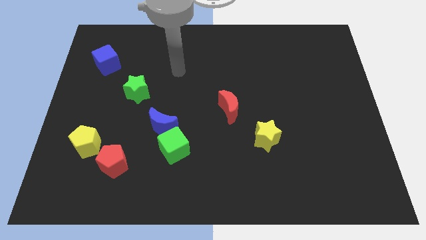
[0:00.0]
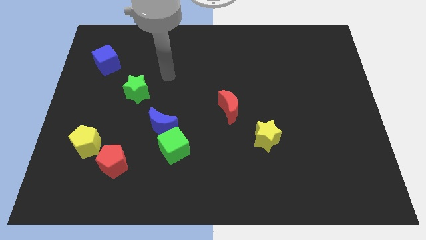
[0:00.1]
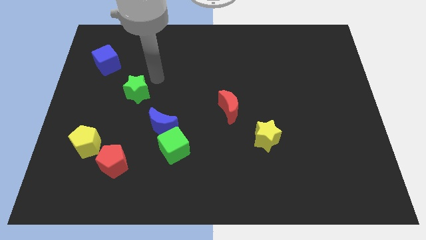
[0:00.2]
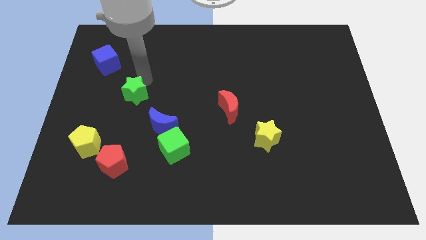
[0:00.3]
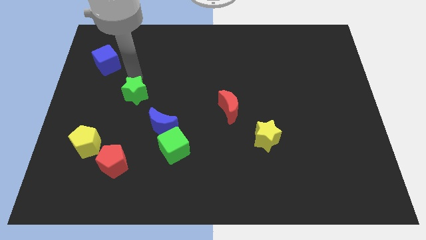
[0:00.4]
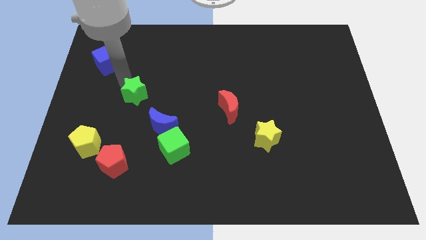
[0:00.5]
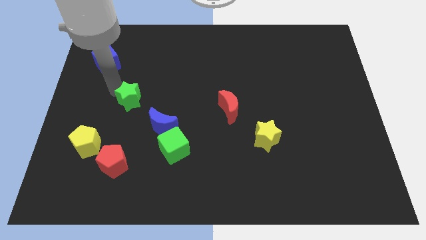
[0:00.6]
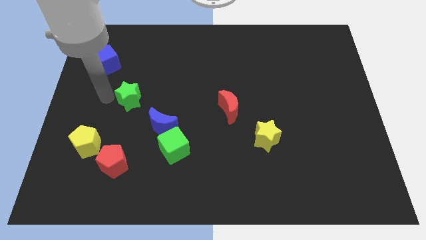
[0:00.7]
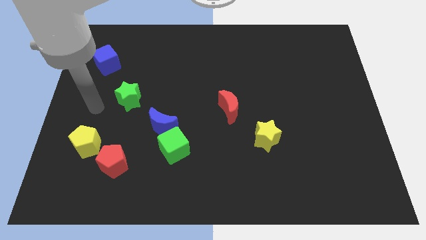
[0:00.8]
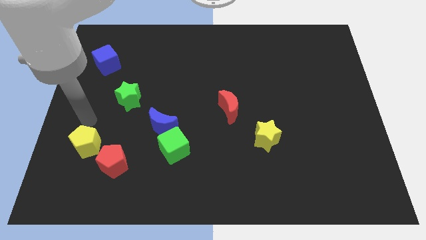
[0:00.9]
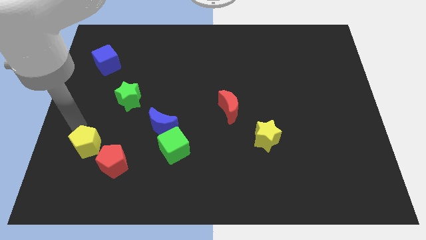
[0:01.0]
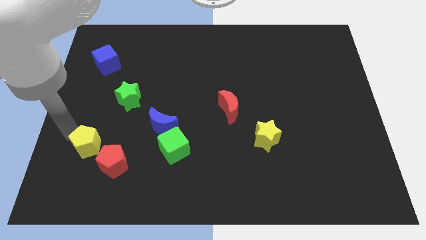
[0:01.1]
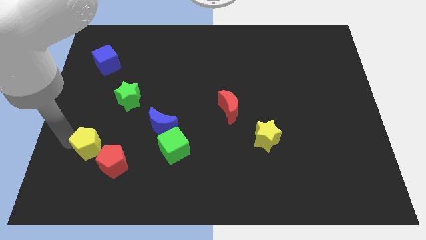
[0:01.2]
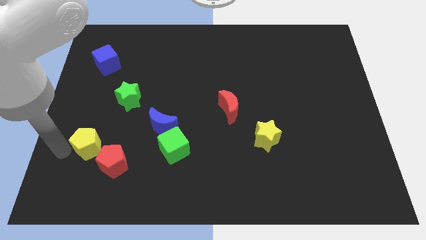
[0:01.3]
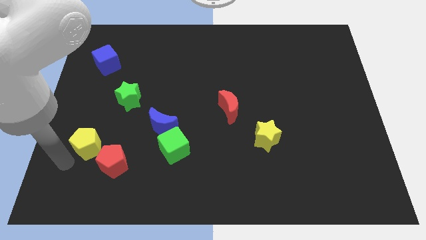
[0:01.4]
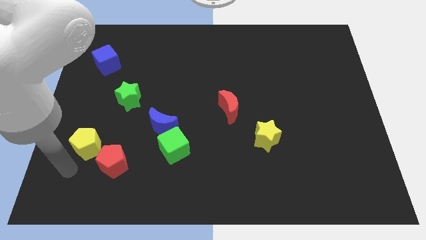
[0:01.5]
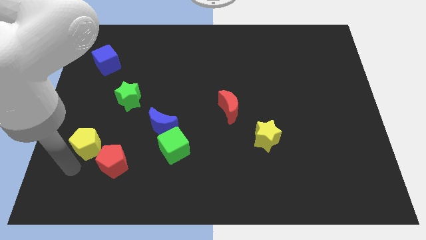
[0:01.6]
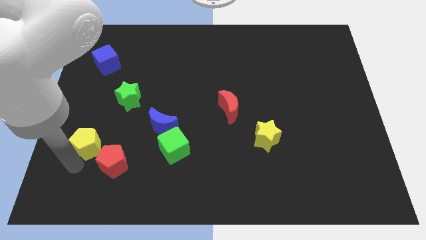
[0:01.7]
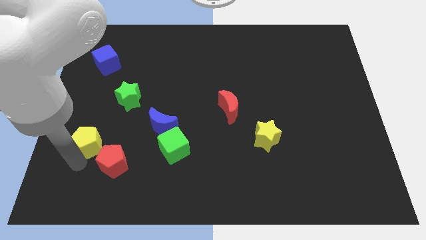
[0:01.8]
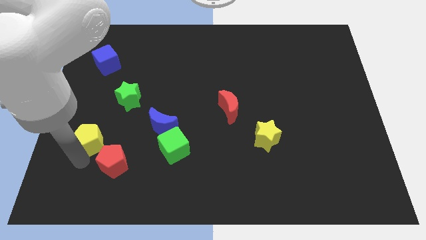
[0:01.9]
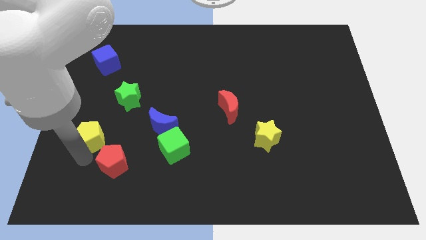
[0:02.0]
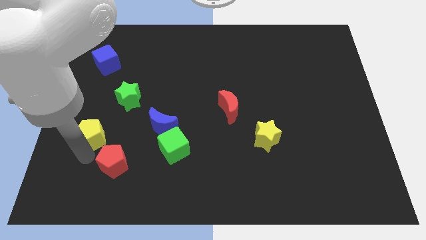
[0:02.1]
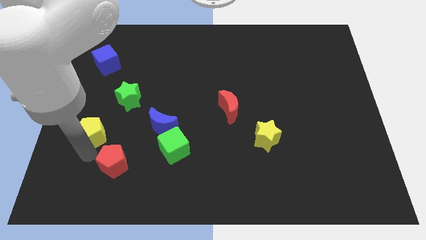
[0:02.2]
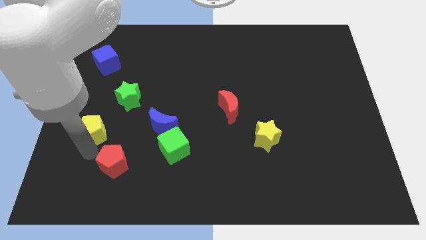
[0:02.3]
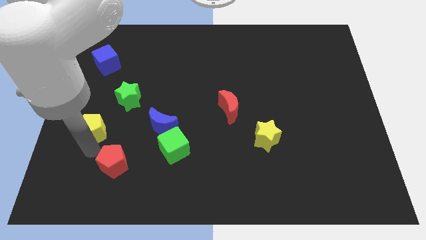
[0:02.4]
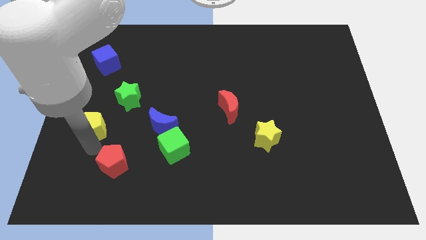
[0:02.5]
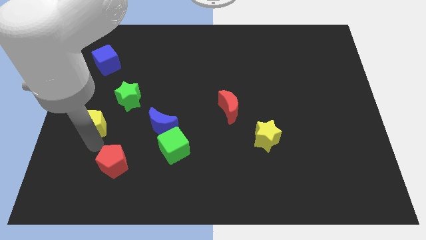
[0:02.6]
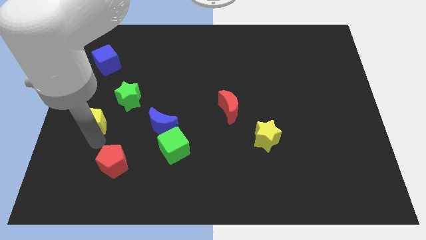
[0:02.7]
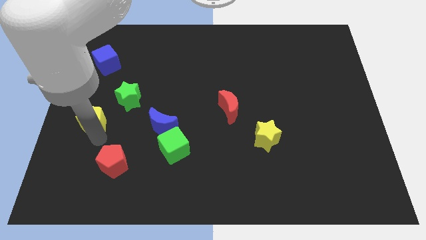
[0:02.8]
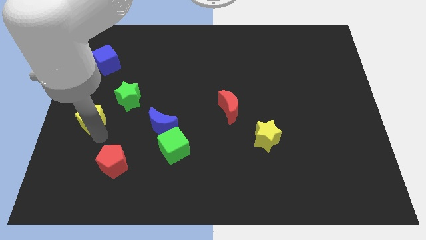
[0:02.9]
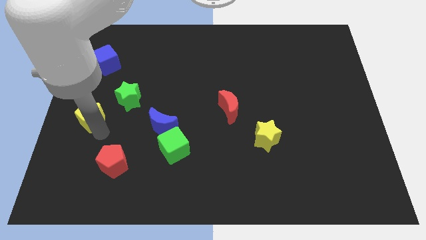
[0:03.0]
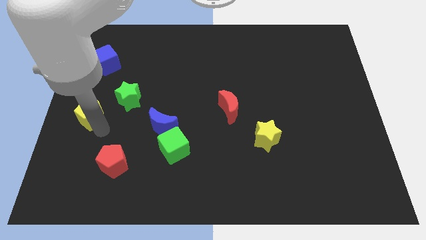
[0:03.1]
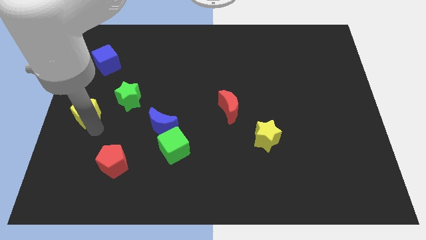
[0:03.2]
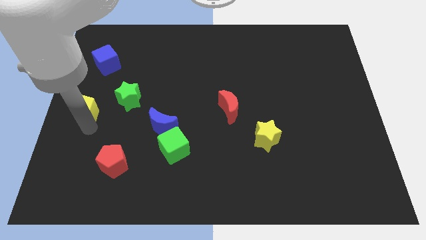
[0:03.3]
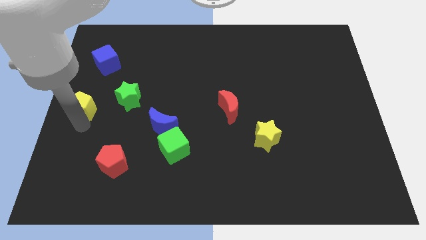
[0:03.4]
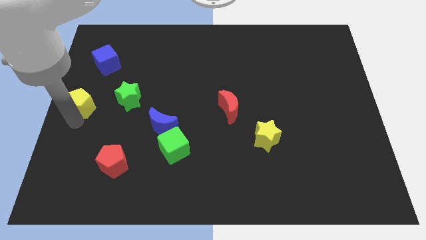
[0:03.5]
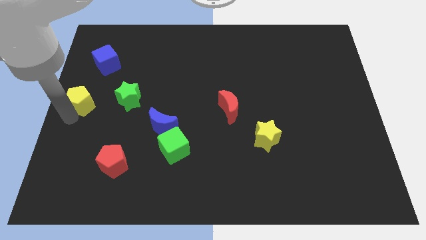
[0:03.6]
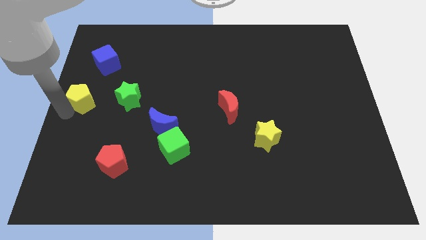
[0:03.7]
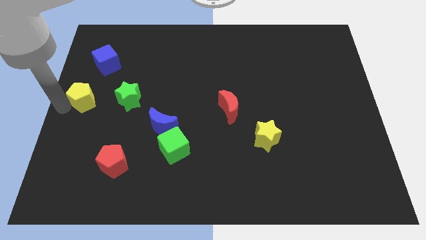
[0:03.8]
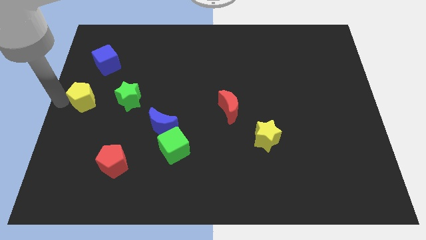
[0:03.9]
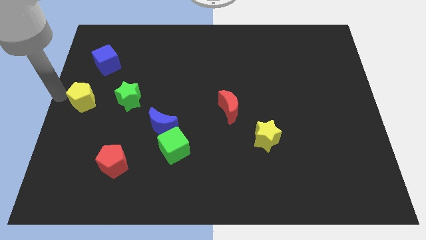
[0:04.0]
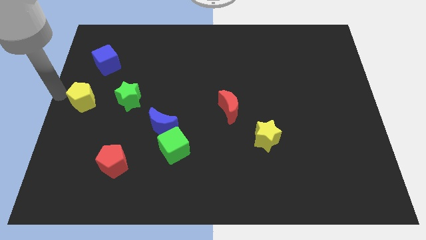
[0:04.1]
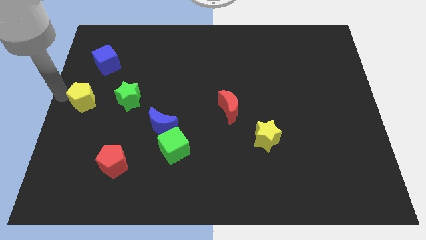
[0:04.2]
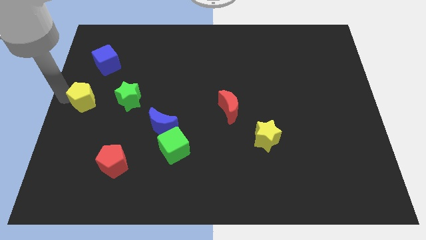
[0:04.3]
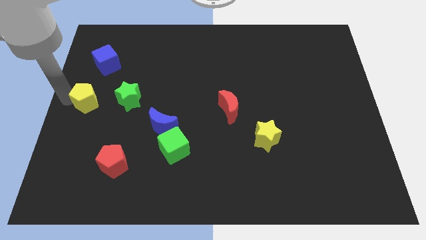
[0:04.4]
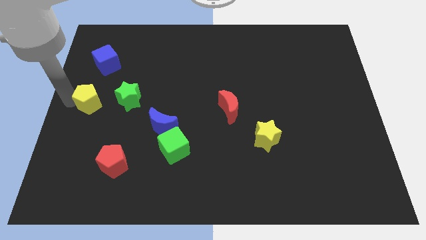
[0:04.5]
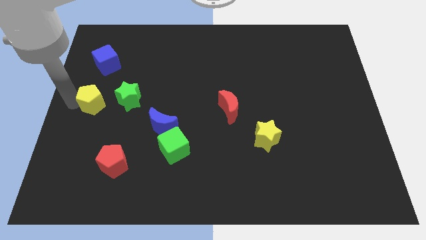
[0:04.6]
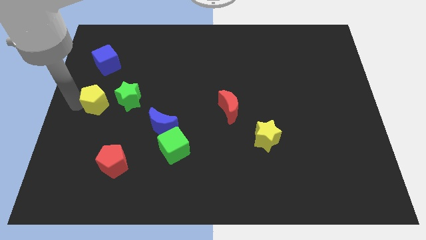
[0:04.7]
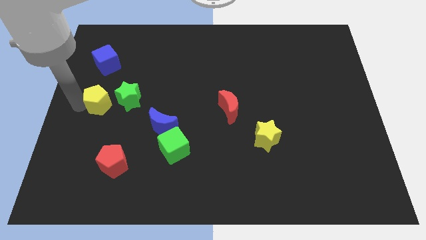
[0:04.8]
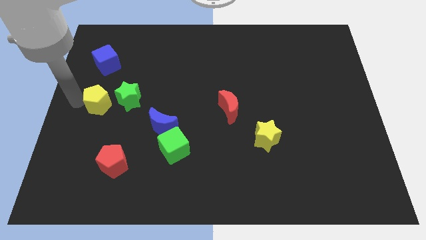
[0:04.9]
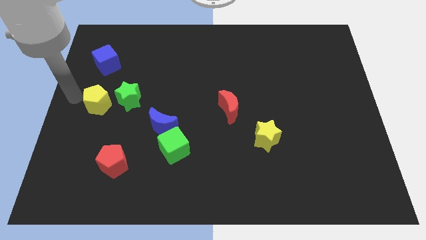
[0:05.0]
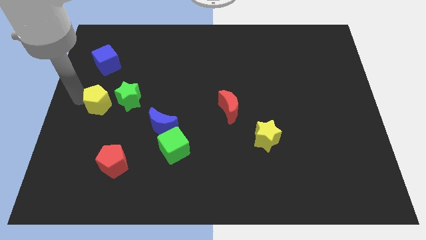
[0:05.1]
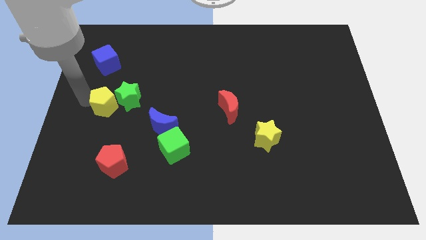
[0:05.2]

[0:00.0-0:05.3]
move the yellow pentagon towards the green star

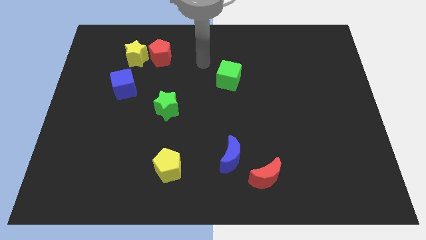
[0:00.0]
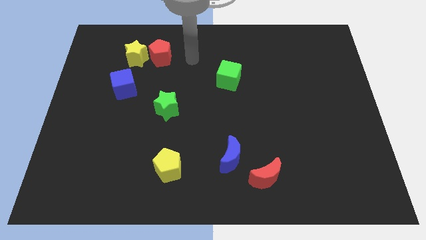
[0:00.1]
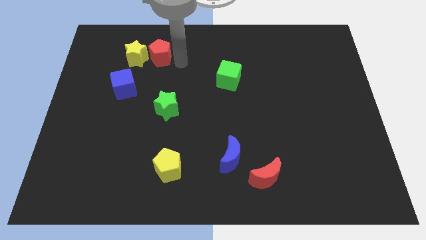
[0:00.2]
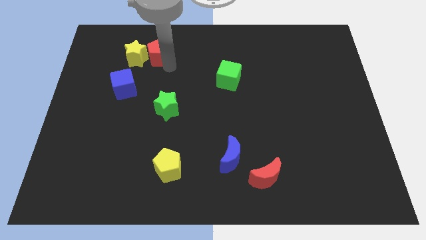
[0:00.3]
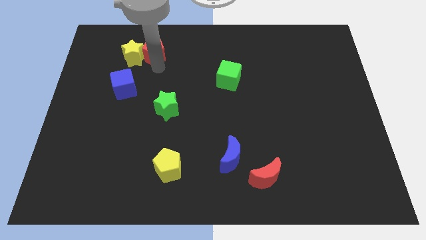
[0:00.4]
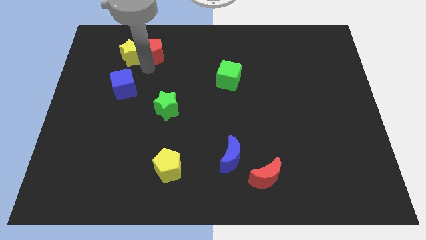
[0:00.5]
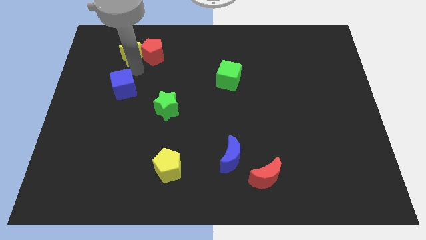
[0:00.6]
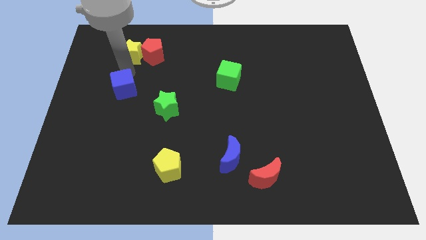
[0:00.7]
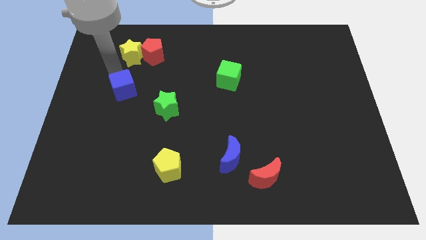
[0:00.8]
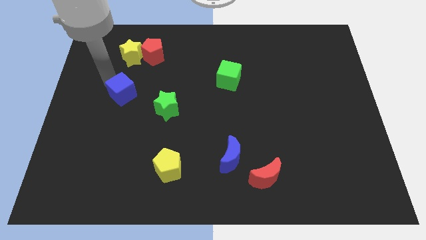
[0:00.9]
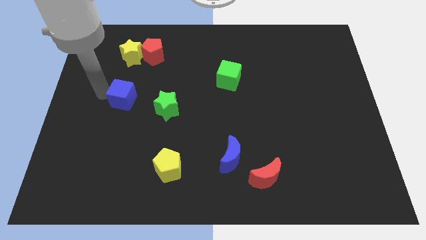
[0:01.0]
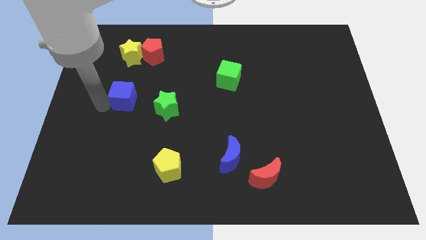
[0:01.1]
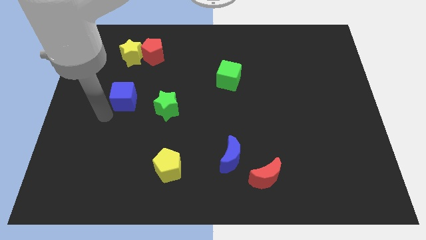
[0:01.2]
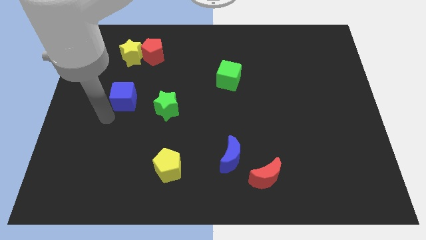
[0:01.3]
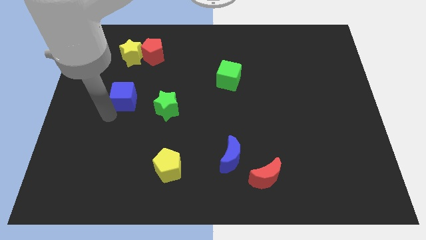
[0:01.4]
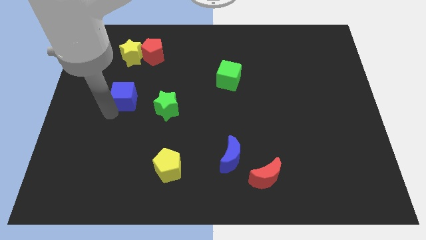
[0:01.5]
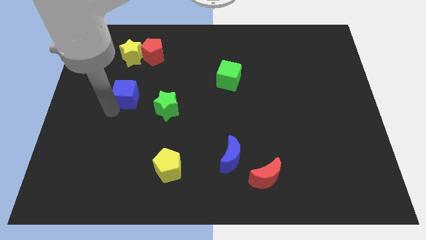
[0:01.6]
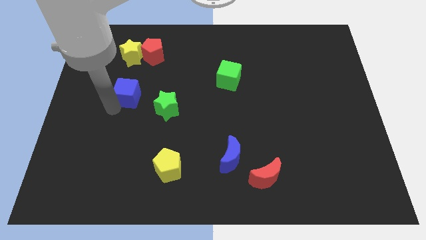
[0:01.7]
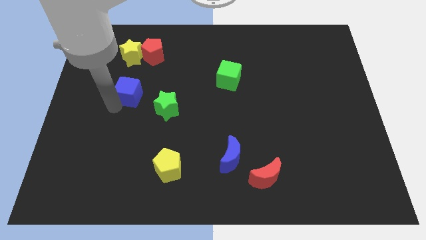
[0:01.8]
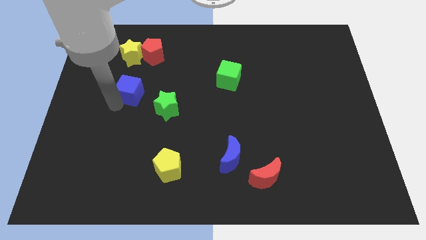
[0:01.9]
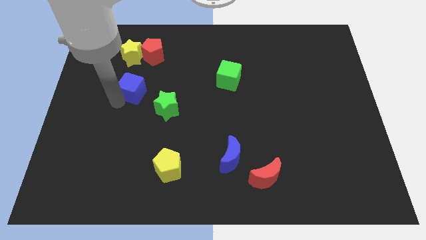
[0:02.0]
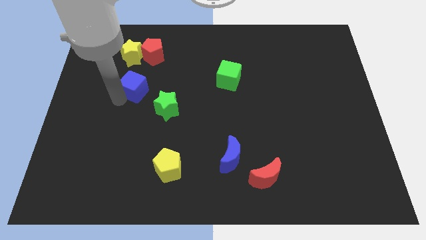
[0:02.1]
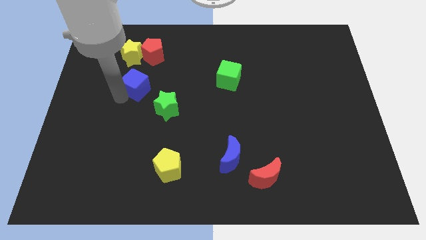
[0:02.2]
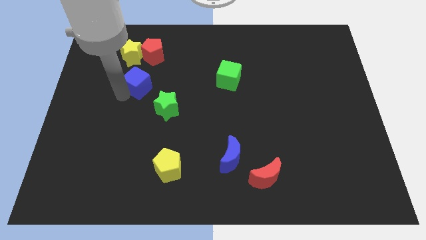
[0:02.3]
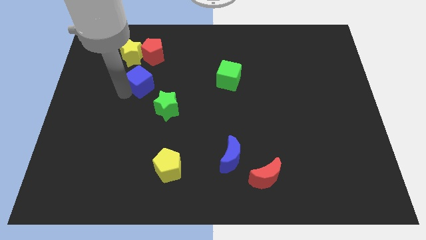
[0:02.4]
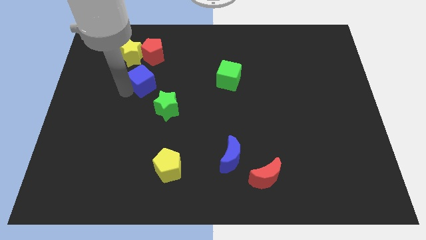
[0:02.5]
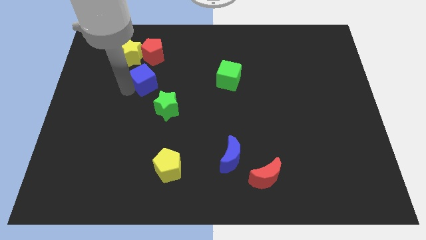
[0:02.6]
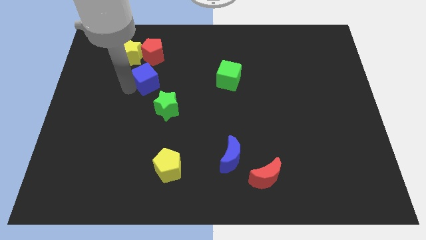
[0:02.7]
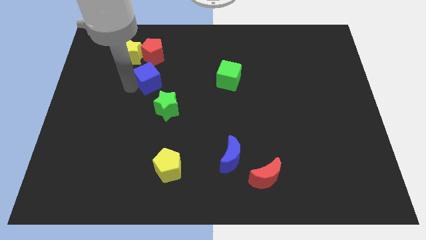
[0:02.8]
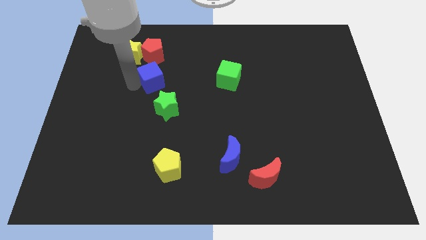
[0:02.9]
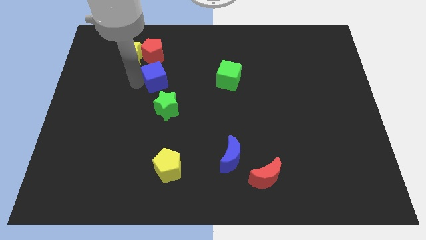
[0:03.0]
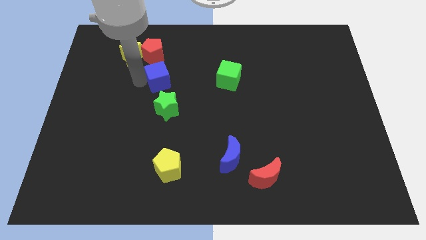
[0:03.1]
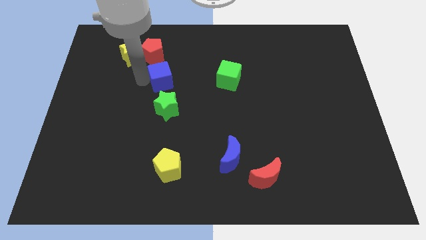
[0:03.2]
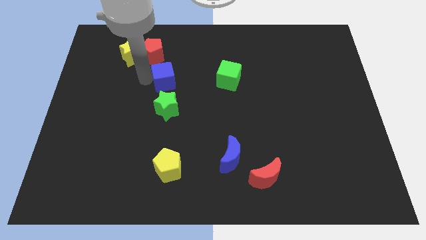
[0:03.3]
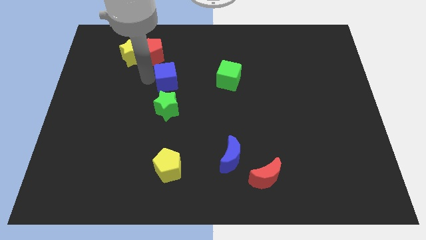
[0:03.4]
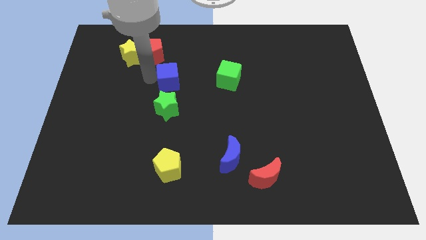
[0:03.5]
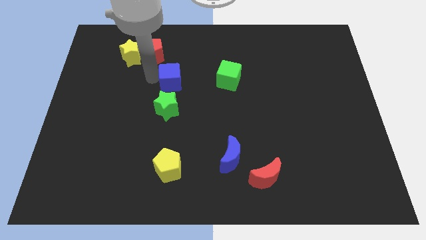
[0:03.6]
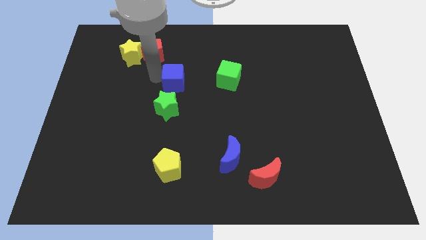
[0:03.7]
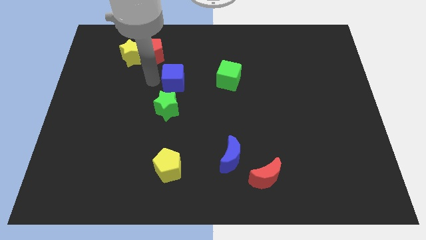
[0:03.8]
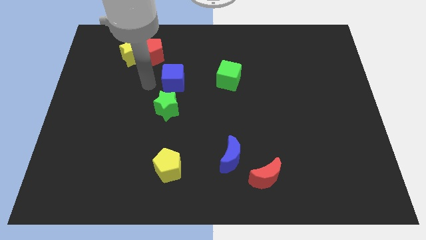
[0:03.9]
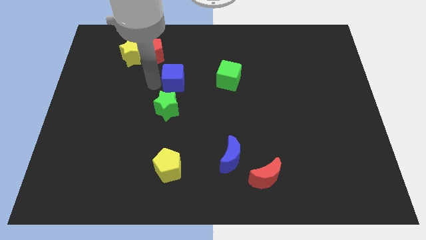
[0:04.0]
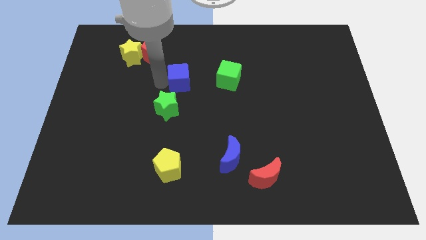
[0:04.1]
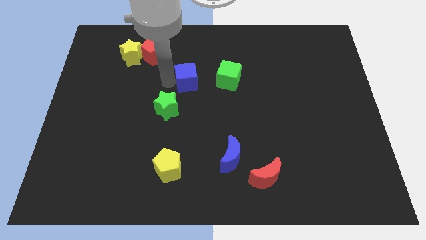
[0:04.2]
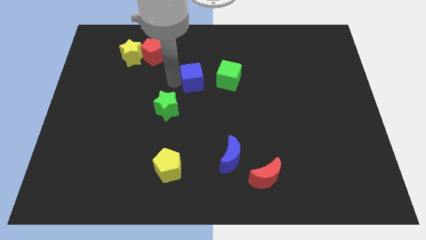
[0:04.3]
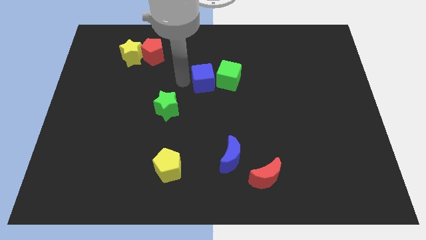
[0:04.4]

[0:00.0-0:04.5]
slide the blue cube close to the green cube
